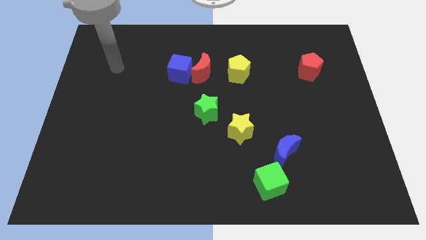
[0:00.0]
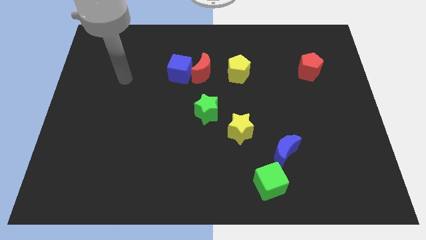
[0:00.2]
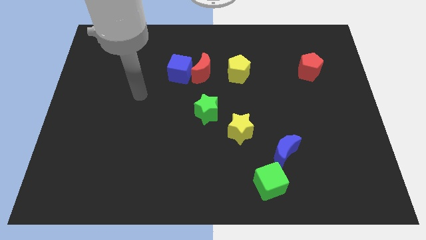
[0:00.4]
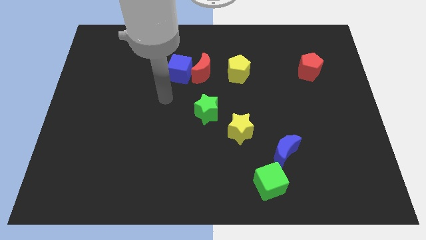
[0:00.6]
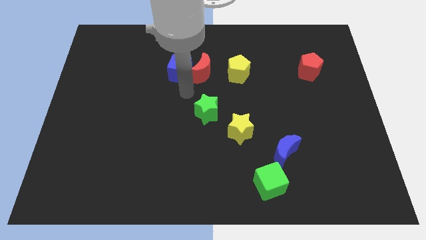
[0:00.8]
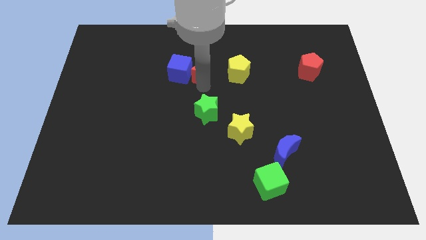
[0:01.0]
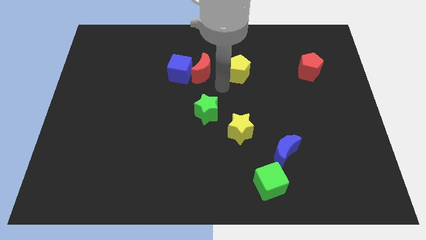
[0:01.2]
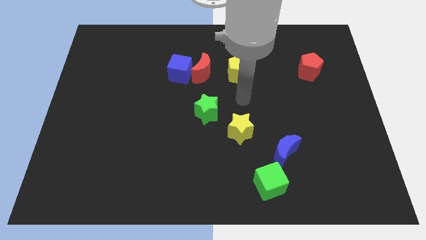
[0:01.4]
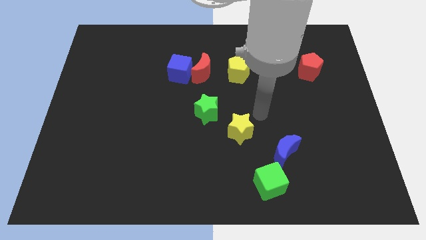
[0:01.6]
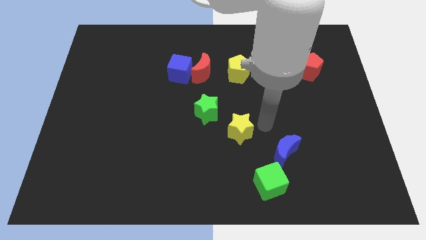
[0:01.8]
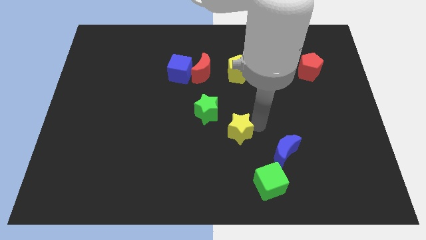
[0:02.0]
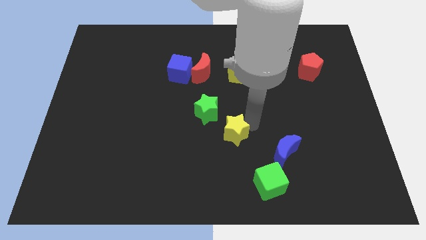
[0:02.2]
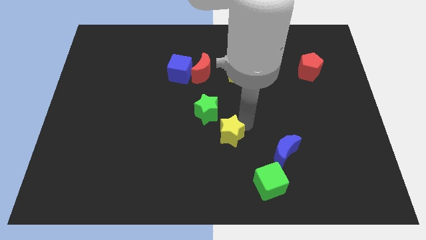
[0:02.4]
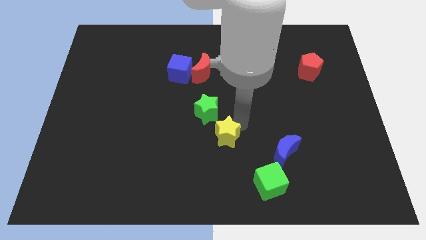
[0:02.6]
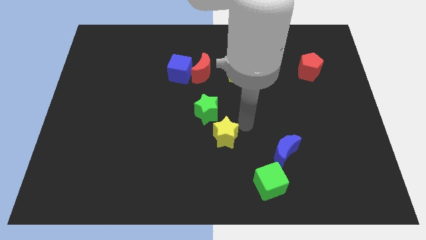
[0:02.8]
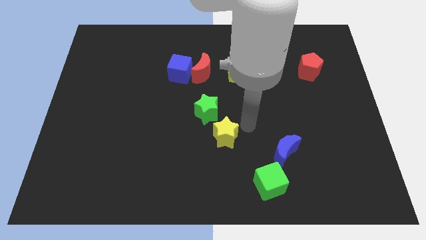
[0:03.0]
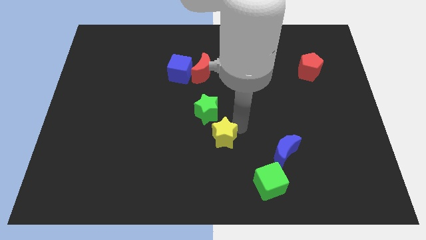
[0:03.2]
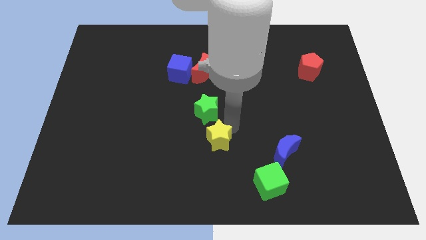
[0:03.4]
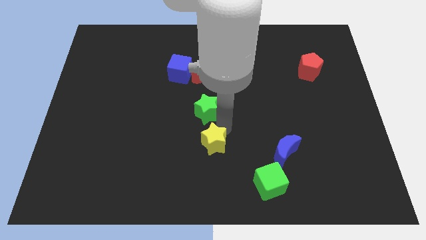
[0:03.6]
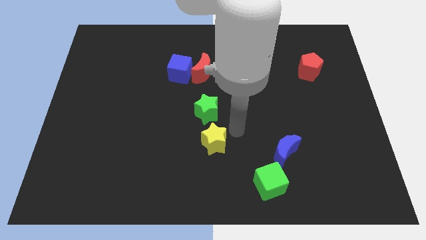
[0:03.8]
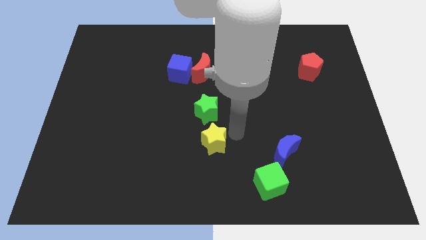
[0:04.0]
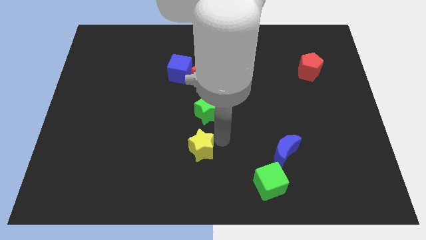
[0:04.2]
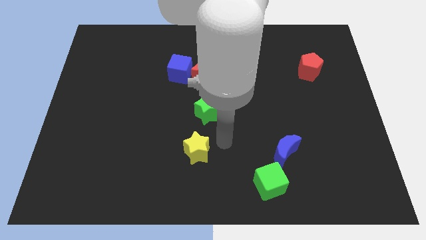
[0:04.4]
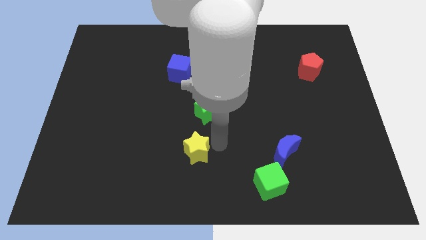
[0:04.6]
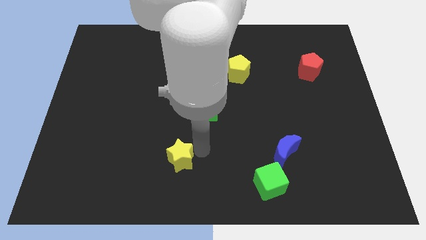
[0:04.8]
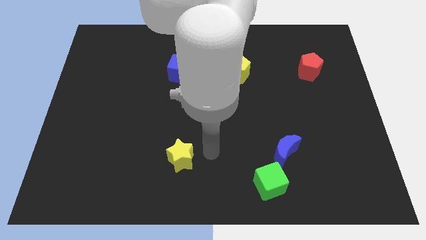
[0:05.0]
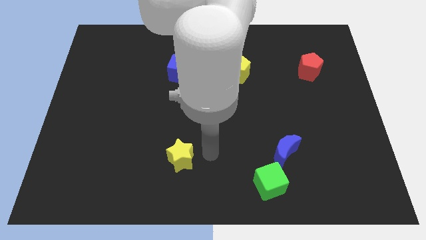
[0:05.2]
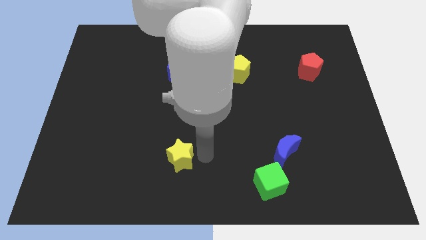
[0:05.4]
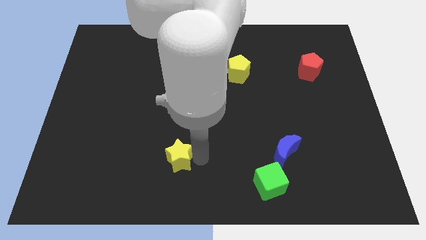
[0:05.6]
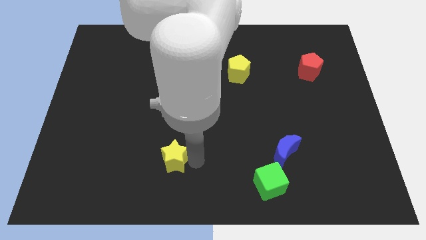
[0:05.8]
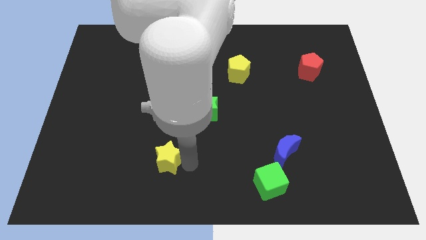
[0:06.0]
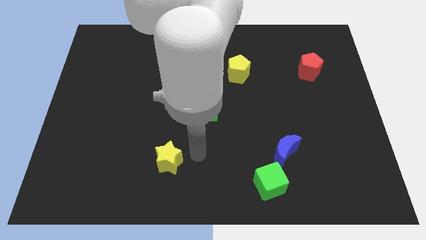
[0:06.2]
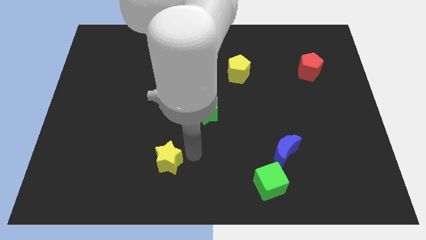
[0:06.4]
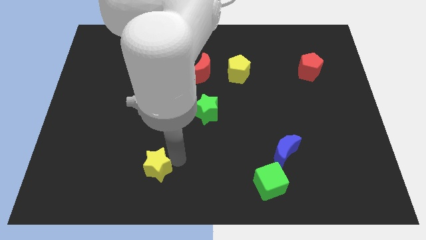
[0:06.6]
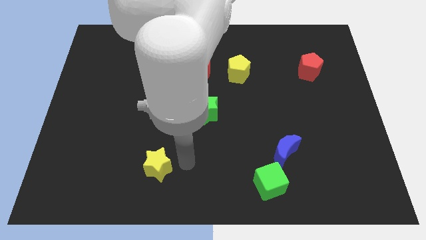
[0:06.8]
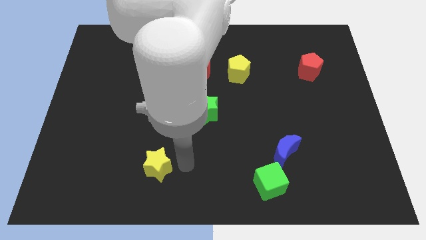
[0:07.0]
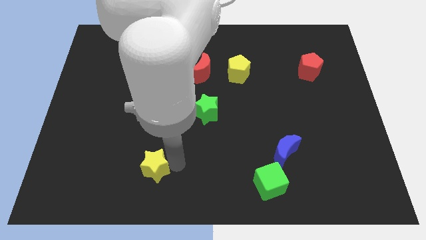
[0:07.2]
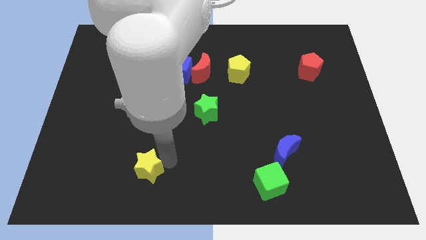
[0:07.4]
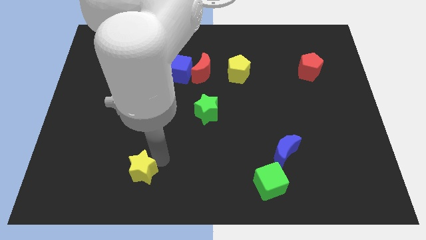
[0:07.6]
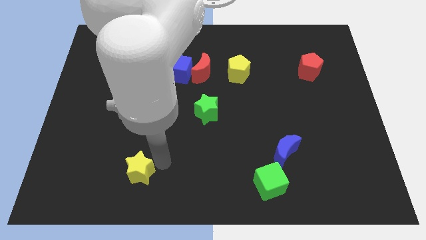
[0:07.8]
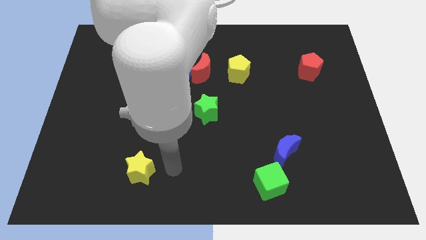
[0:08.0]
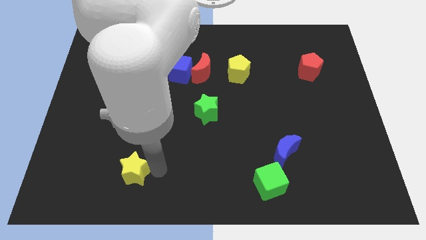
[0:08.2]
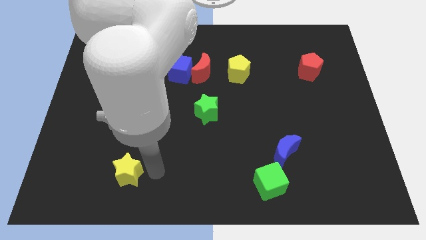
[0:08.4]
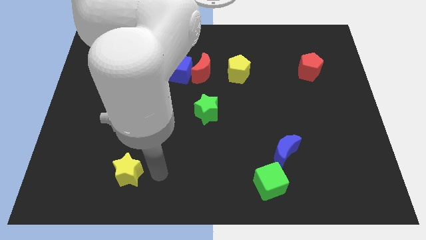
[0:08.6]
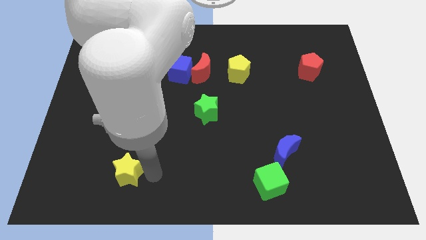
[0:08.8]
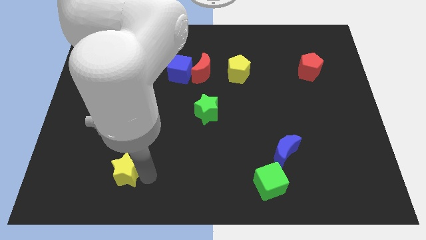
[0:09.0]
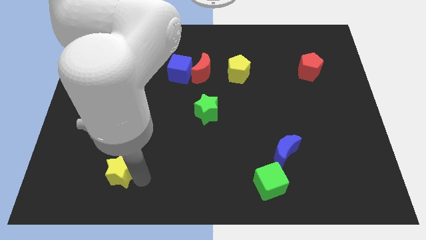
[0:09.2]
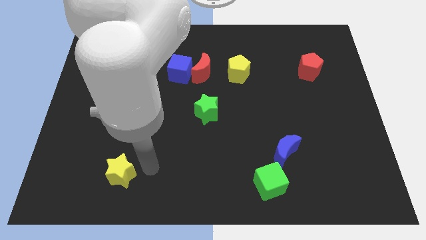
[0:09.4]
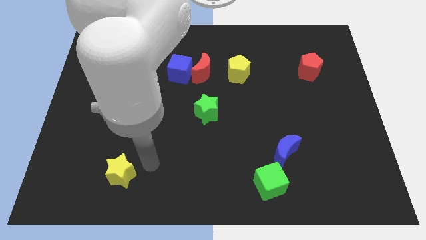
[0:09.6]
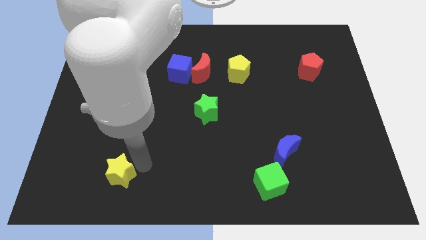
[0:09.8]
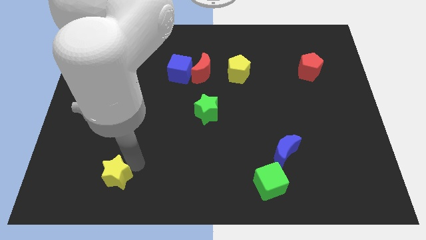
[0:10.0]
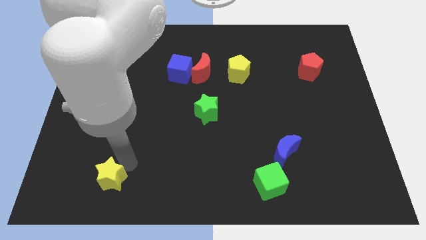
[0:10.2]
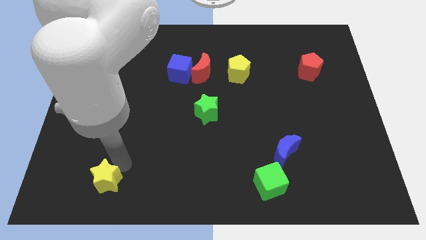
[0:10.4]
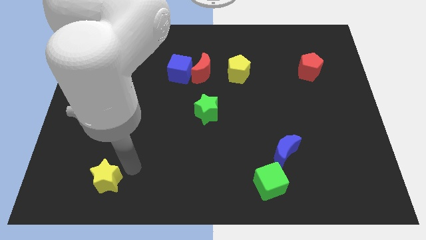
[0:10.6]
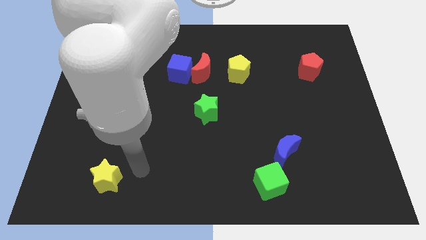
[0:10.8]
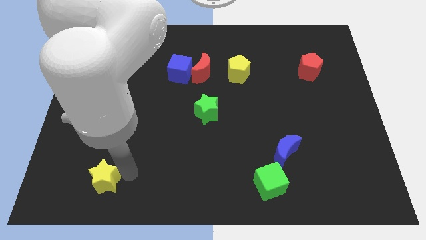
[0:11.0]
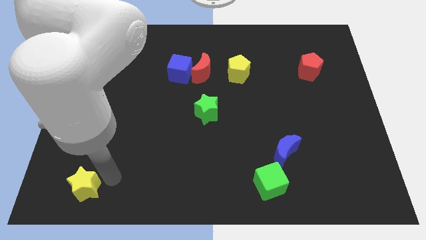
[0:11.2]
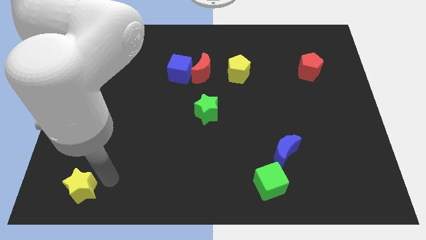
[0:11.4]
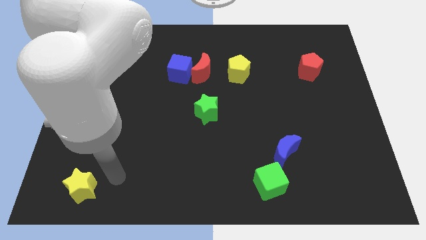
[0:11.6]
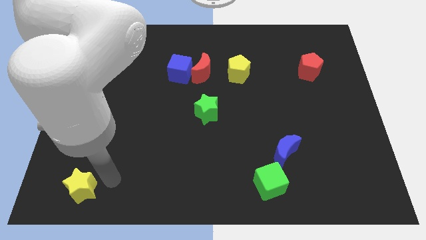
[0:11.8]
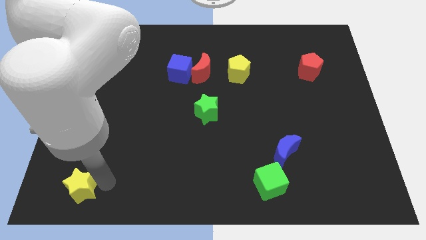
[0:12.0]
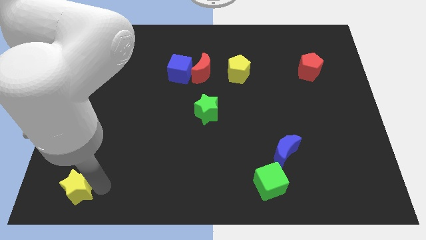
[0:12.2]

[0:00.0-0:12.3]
put the yellow star to the bottom left

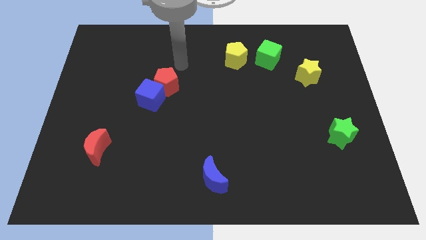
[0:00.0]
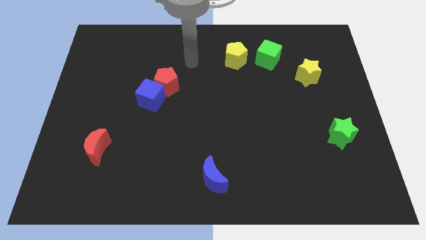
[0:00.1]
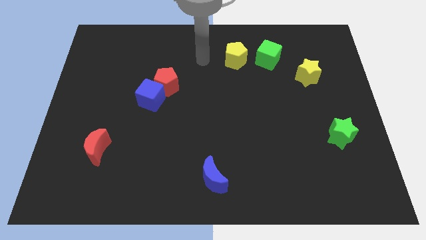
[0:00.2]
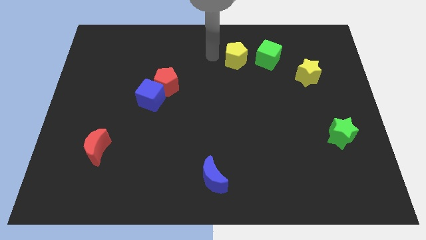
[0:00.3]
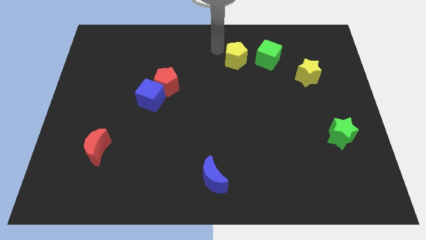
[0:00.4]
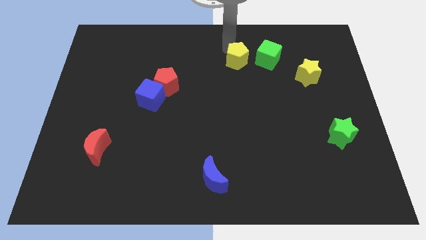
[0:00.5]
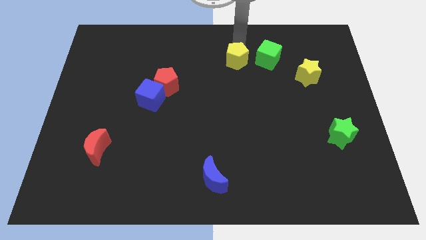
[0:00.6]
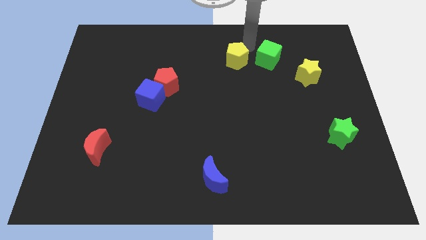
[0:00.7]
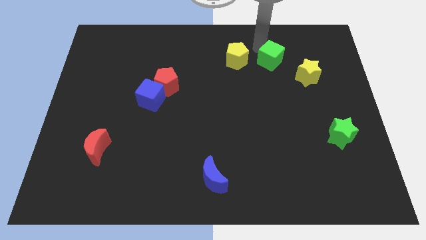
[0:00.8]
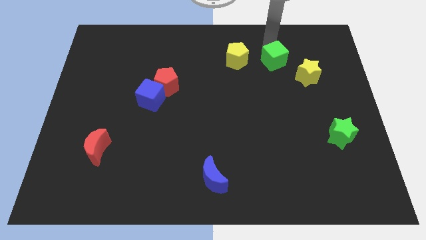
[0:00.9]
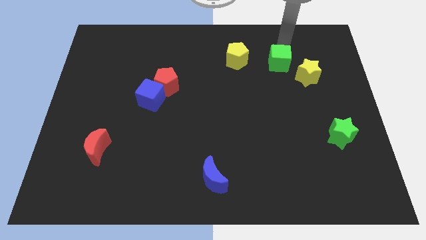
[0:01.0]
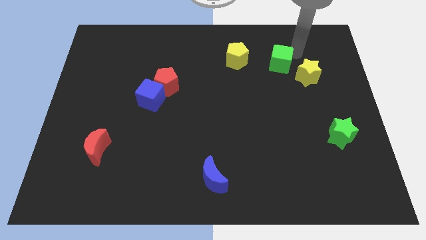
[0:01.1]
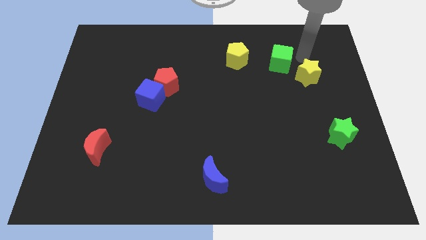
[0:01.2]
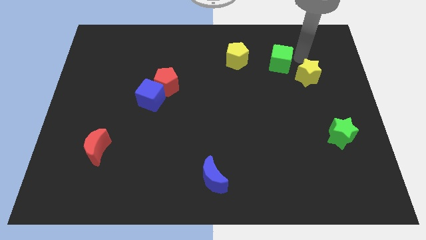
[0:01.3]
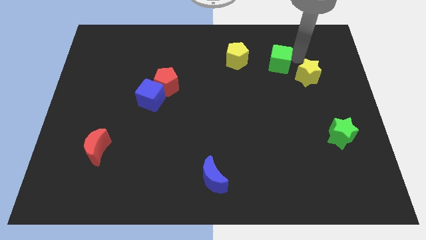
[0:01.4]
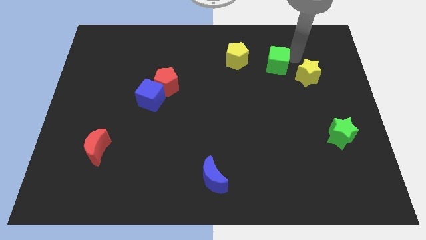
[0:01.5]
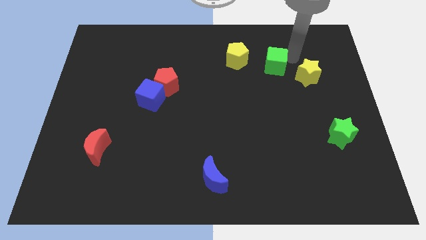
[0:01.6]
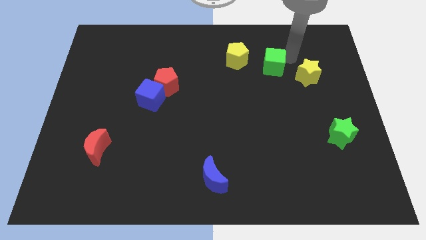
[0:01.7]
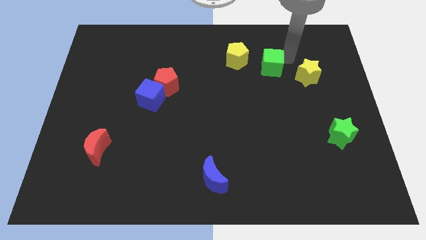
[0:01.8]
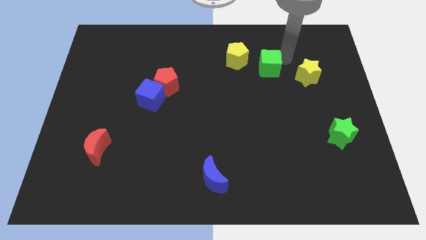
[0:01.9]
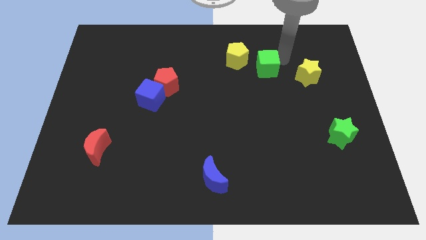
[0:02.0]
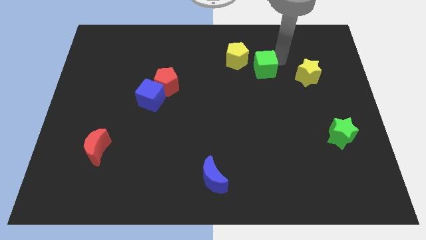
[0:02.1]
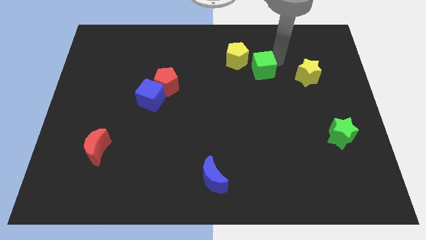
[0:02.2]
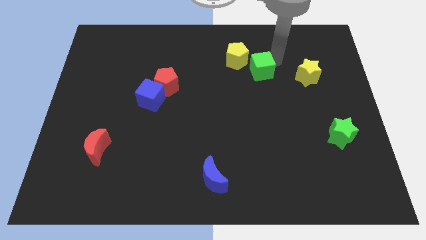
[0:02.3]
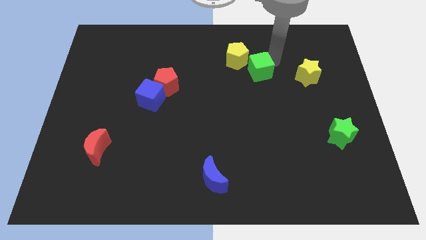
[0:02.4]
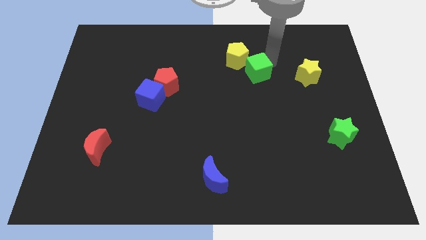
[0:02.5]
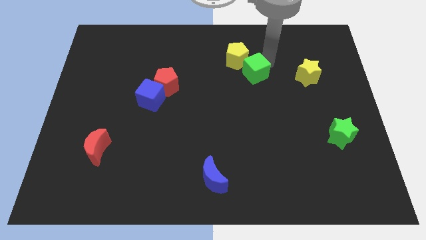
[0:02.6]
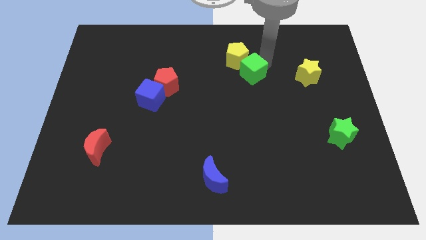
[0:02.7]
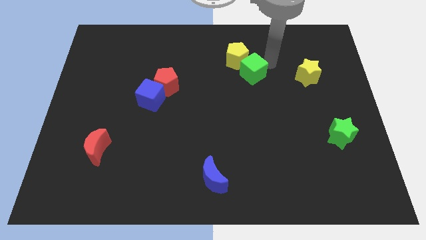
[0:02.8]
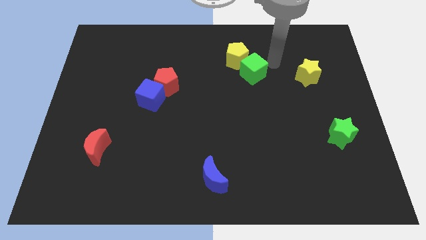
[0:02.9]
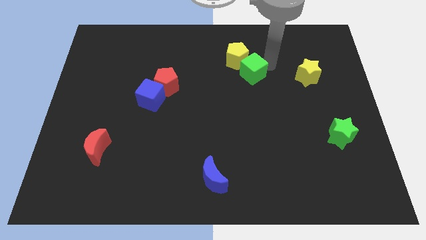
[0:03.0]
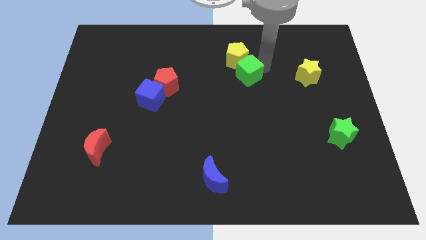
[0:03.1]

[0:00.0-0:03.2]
push the green cube to the middle
